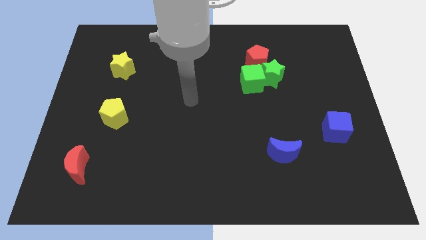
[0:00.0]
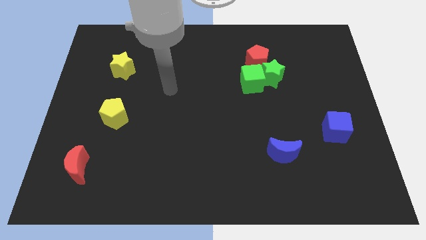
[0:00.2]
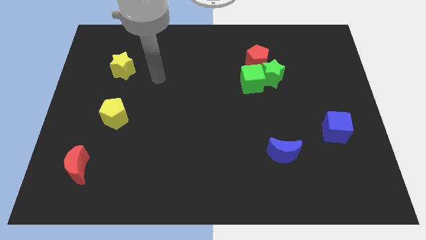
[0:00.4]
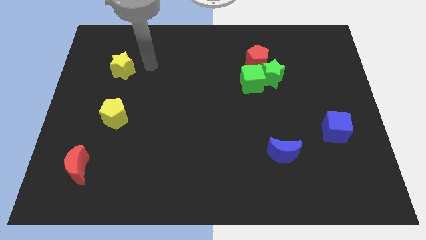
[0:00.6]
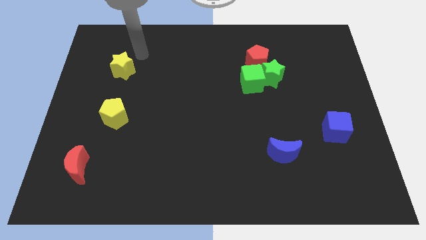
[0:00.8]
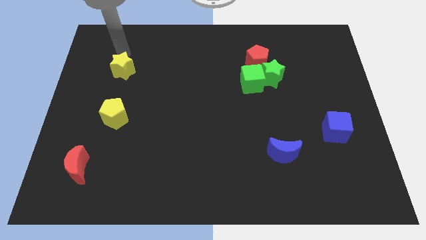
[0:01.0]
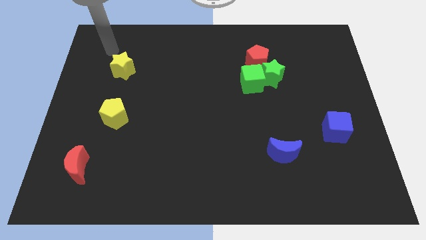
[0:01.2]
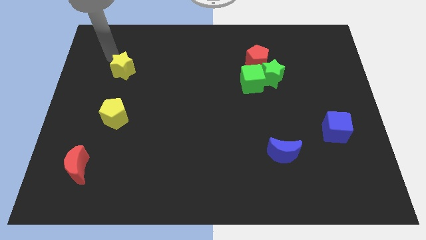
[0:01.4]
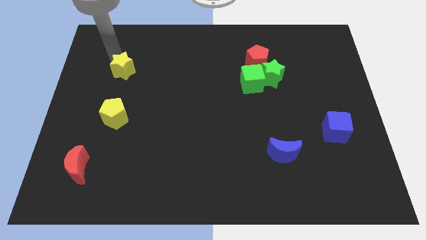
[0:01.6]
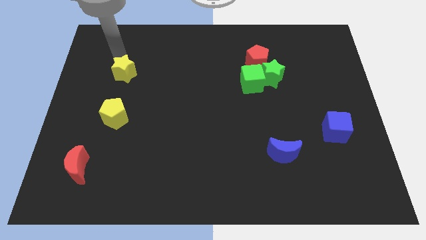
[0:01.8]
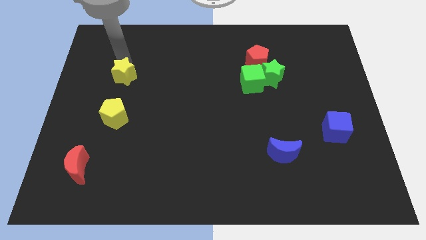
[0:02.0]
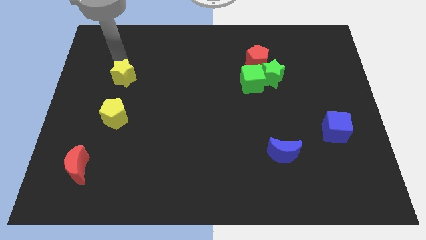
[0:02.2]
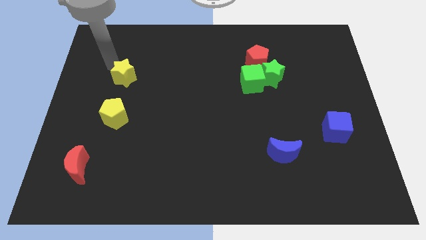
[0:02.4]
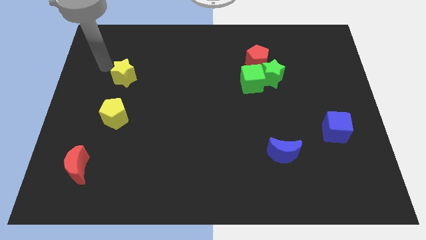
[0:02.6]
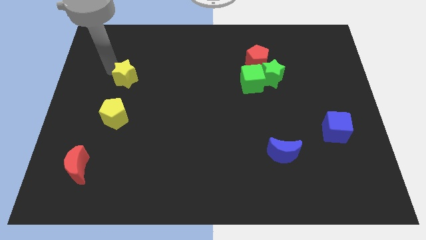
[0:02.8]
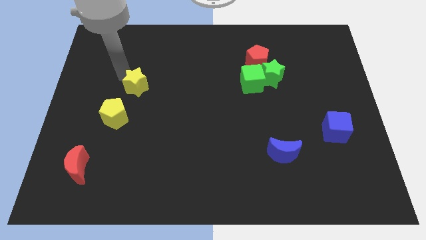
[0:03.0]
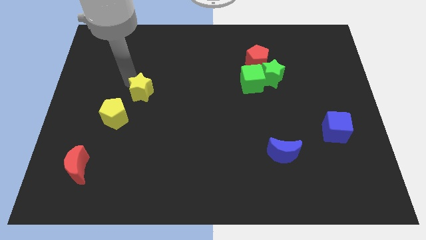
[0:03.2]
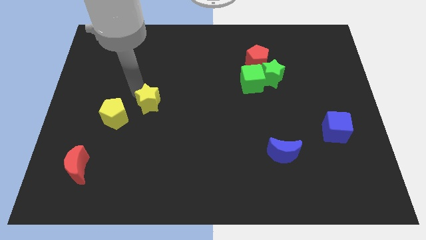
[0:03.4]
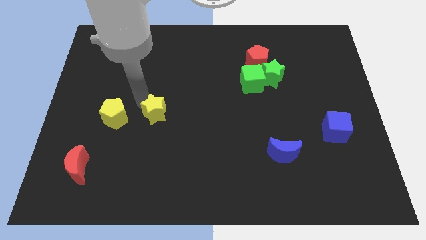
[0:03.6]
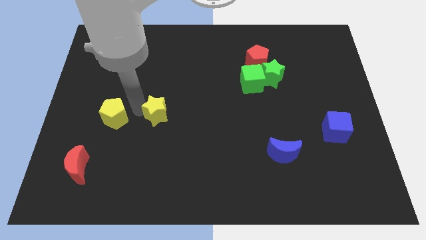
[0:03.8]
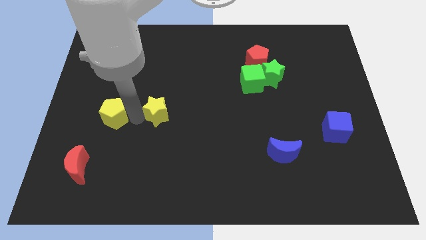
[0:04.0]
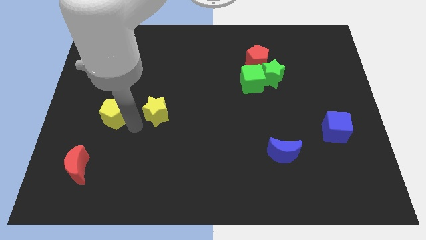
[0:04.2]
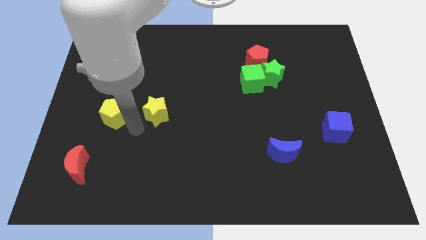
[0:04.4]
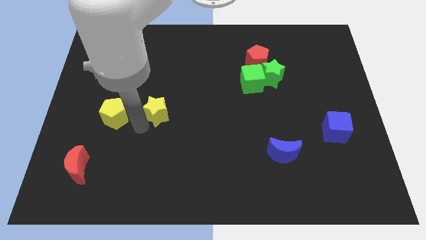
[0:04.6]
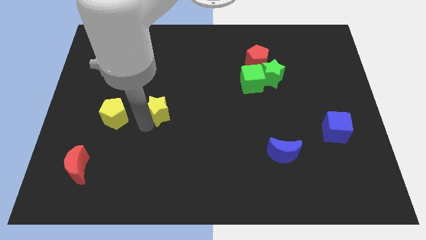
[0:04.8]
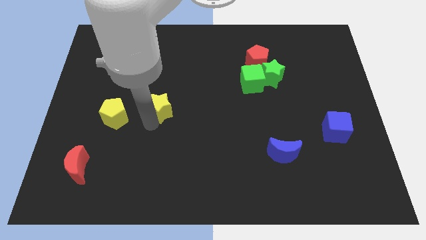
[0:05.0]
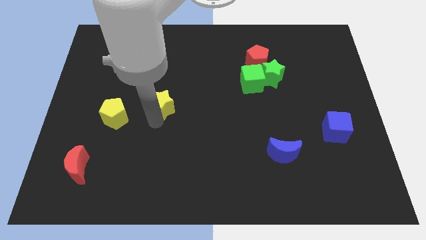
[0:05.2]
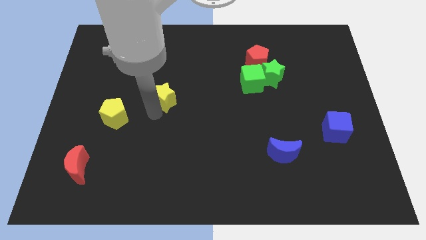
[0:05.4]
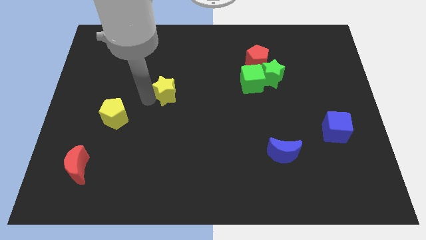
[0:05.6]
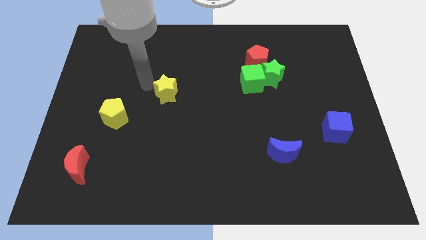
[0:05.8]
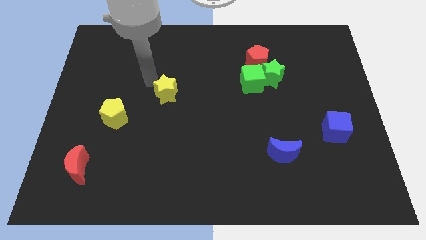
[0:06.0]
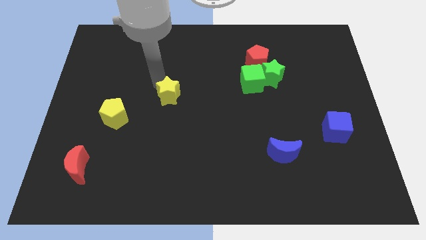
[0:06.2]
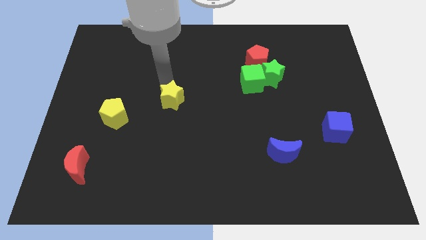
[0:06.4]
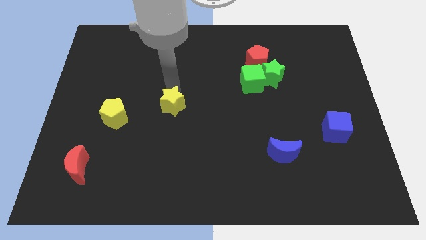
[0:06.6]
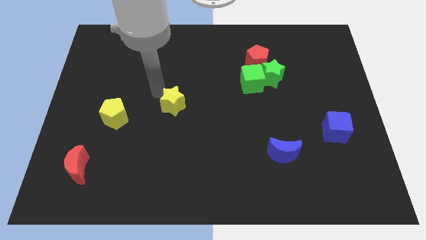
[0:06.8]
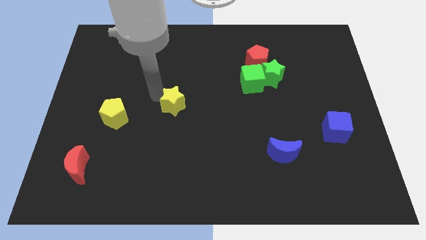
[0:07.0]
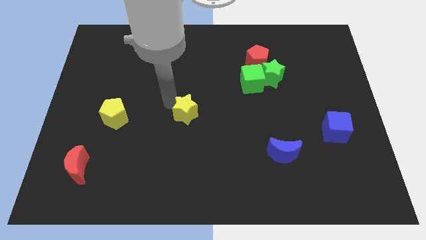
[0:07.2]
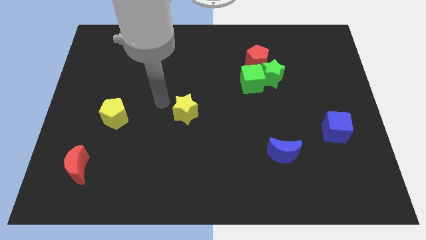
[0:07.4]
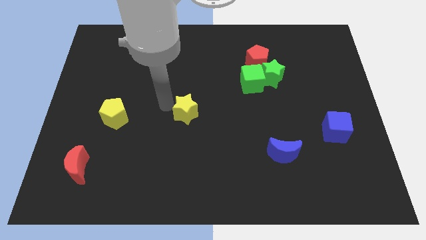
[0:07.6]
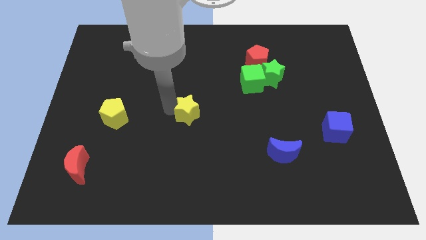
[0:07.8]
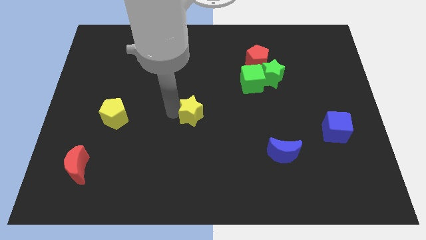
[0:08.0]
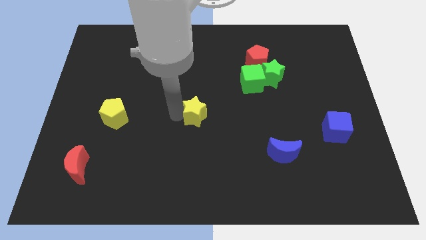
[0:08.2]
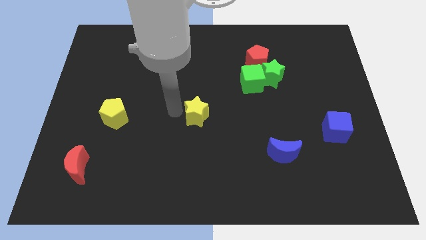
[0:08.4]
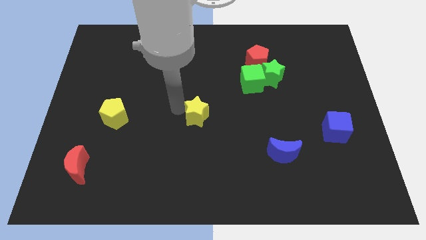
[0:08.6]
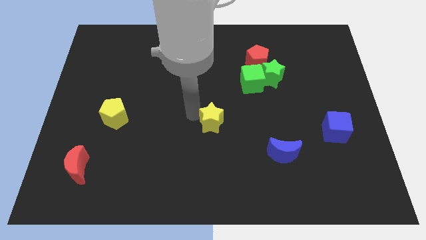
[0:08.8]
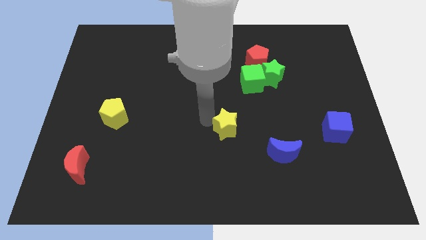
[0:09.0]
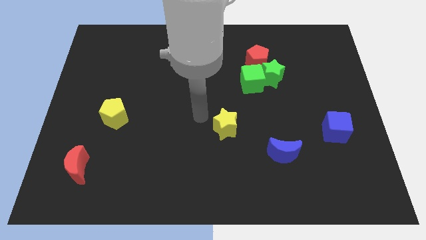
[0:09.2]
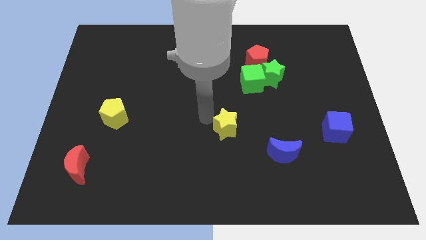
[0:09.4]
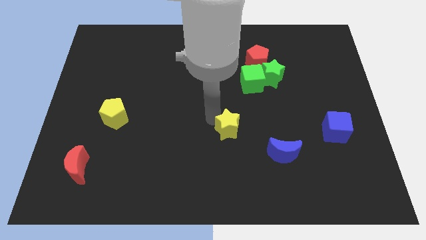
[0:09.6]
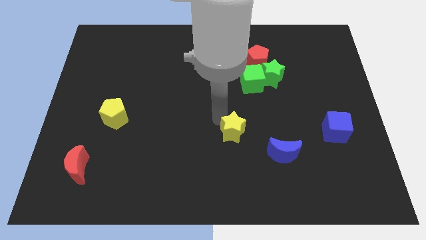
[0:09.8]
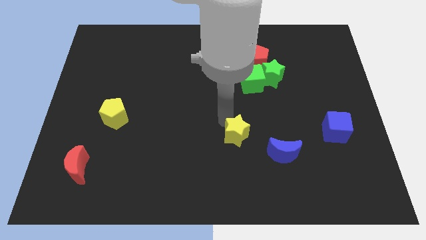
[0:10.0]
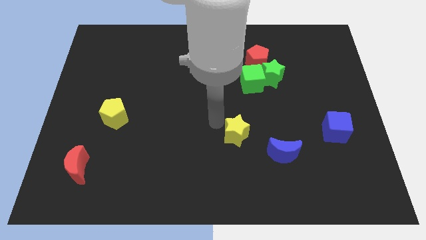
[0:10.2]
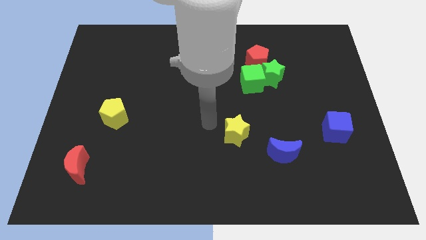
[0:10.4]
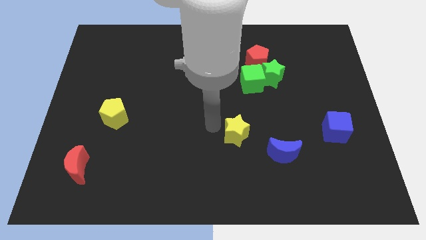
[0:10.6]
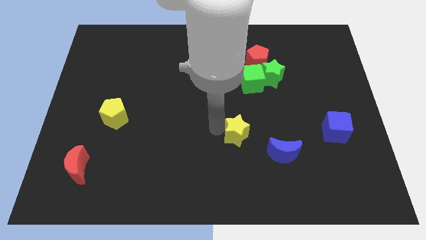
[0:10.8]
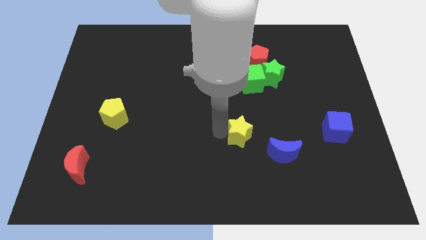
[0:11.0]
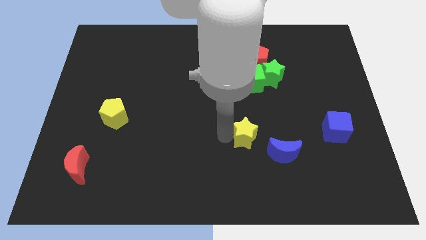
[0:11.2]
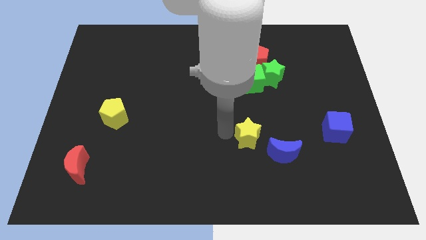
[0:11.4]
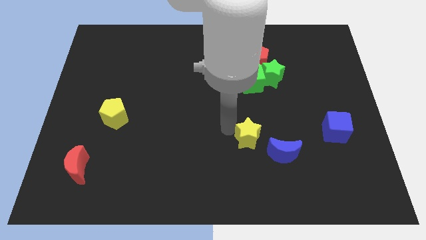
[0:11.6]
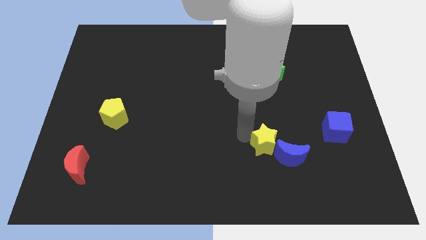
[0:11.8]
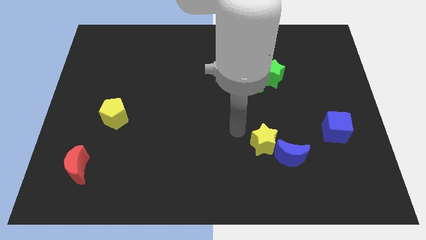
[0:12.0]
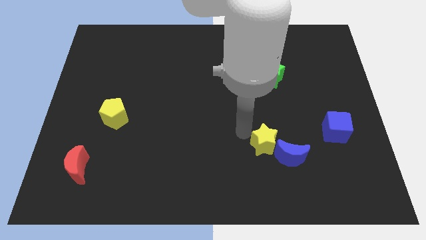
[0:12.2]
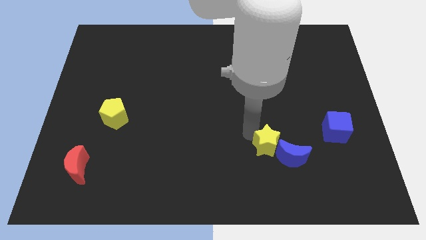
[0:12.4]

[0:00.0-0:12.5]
slide the yellow star to the blue moon

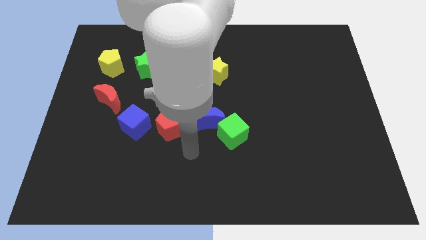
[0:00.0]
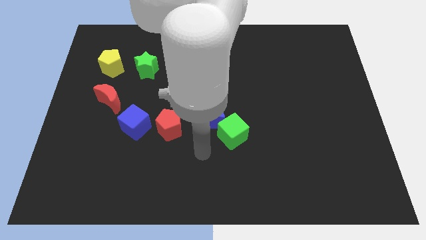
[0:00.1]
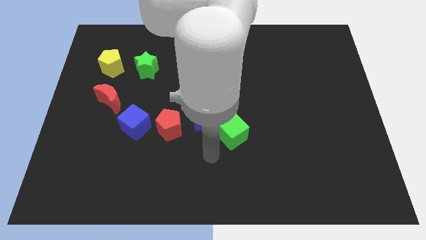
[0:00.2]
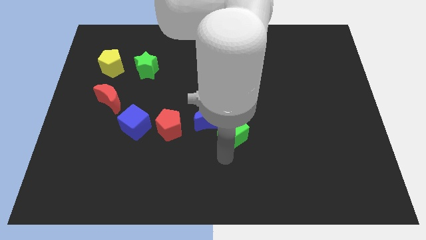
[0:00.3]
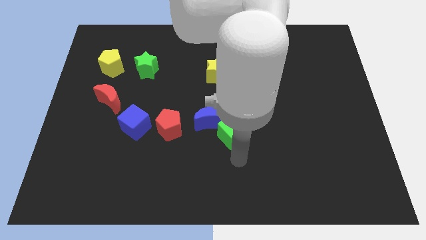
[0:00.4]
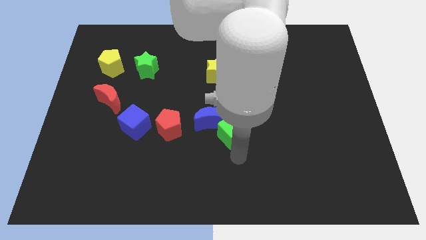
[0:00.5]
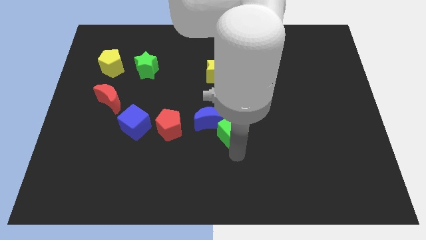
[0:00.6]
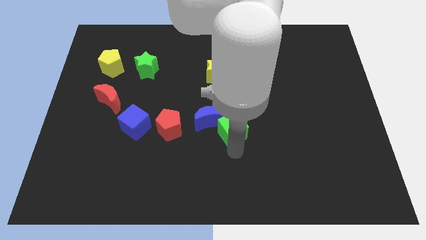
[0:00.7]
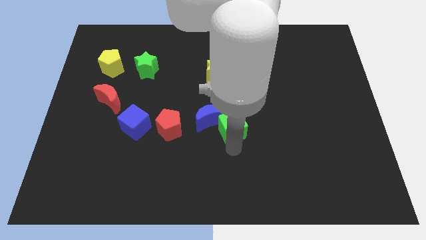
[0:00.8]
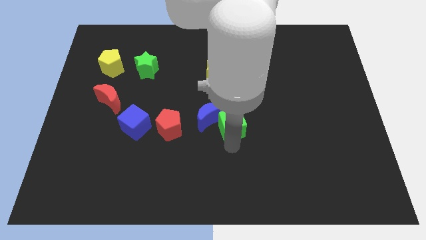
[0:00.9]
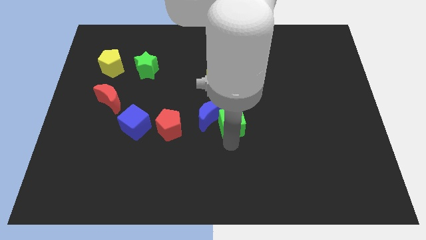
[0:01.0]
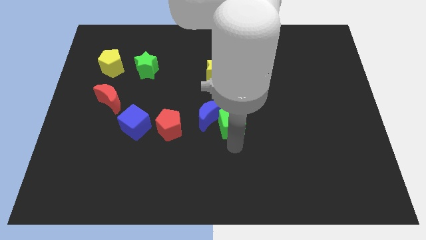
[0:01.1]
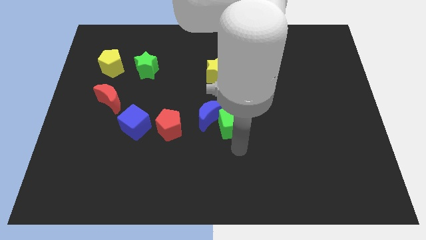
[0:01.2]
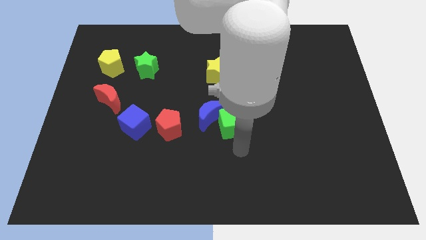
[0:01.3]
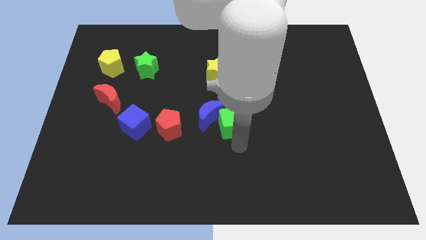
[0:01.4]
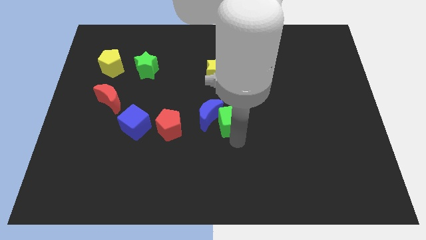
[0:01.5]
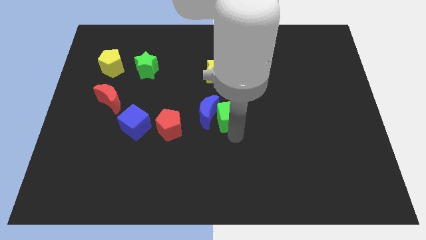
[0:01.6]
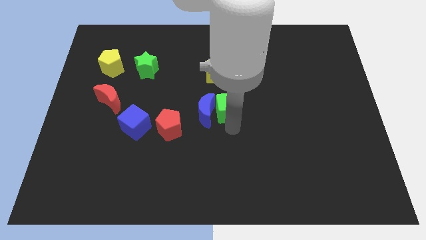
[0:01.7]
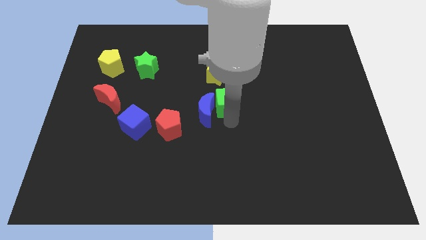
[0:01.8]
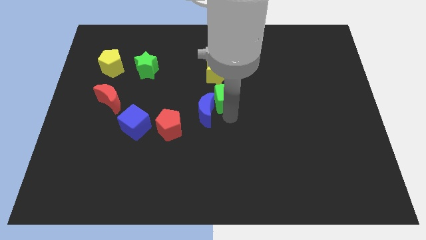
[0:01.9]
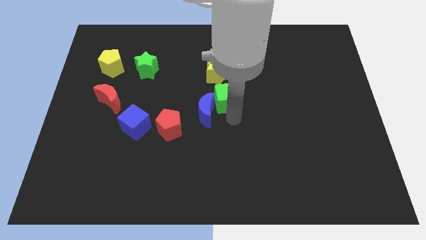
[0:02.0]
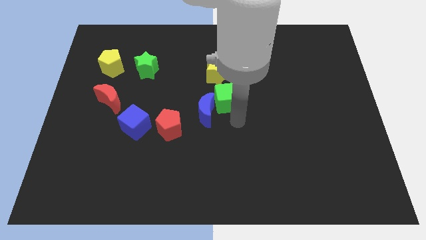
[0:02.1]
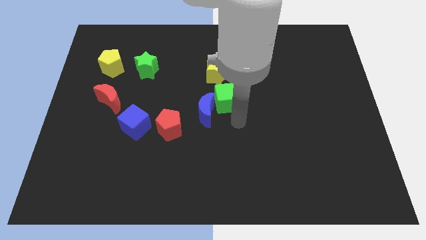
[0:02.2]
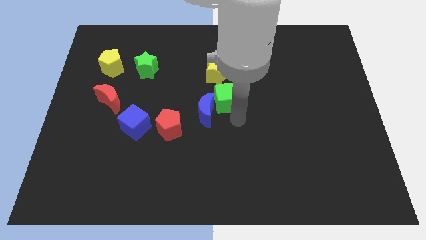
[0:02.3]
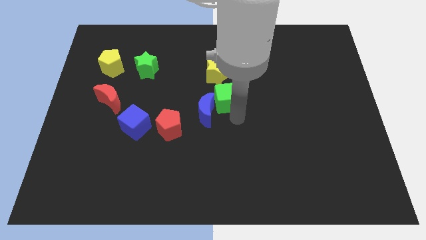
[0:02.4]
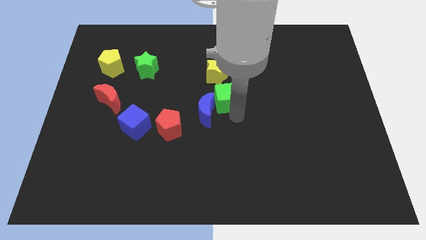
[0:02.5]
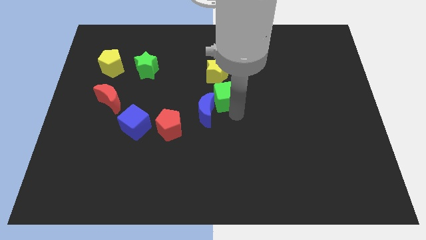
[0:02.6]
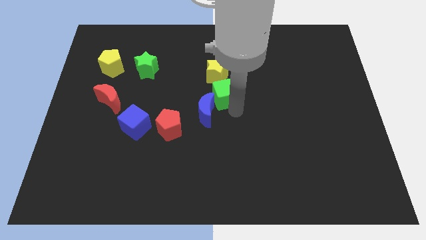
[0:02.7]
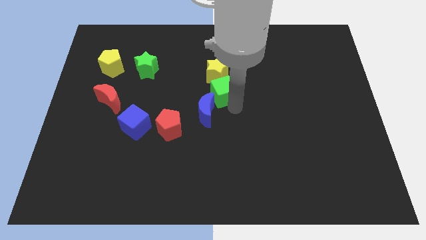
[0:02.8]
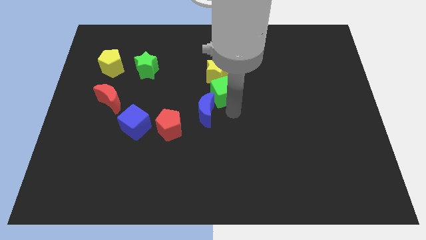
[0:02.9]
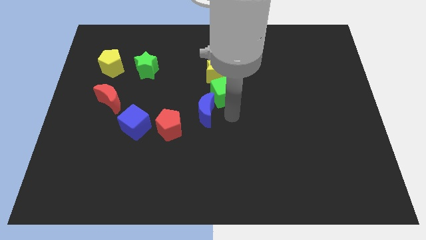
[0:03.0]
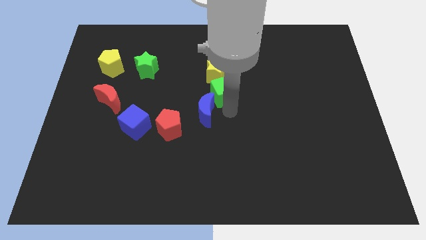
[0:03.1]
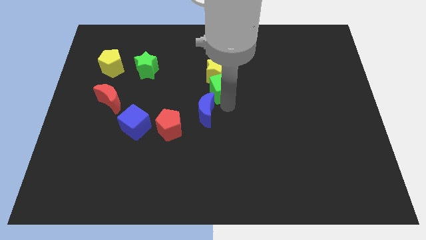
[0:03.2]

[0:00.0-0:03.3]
slide the green cube to the yellow star
